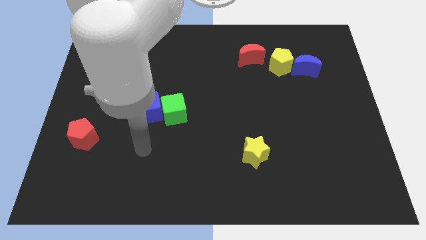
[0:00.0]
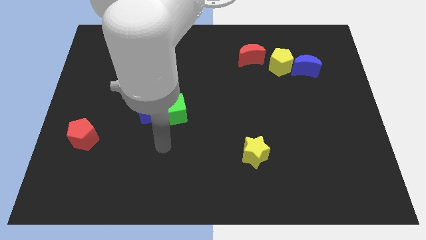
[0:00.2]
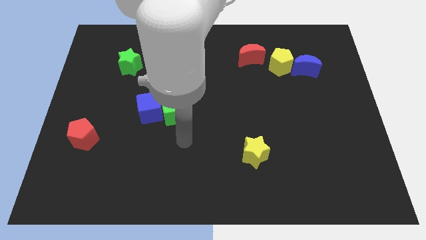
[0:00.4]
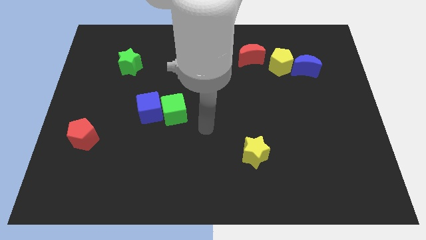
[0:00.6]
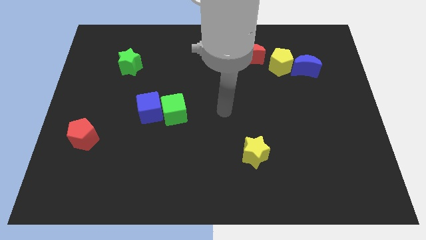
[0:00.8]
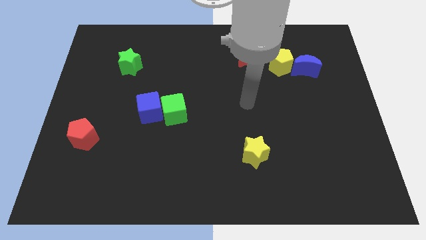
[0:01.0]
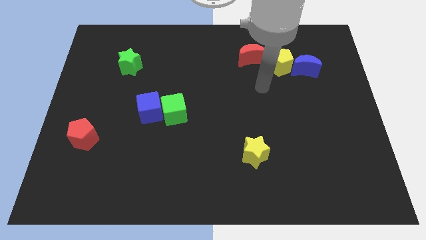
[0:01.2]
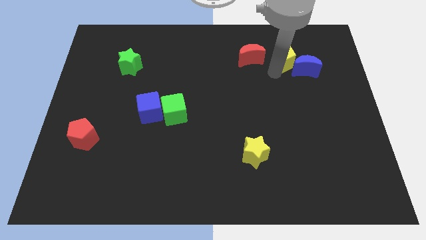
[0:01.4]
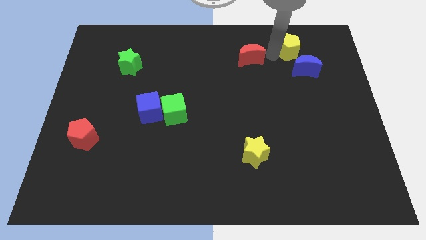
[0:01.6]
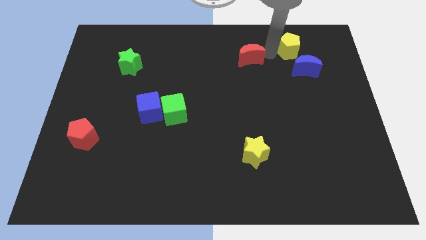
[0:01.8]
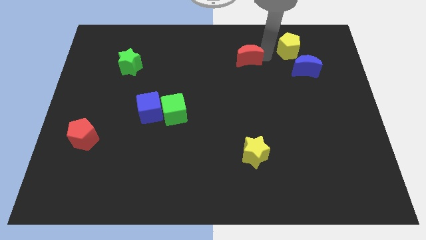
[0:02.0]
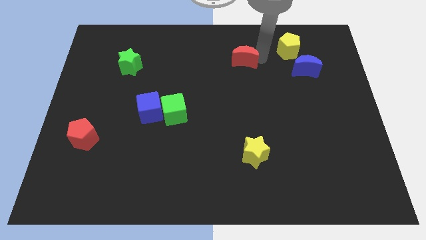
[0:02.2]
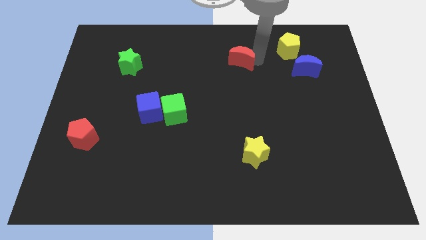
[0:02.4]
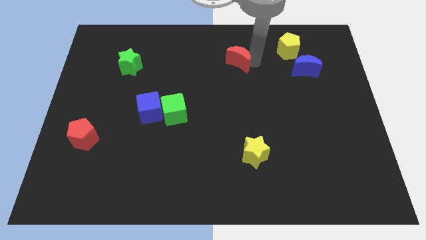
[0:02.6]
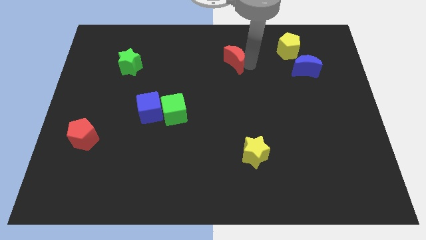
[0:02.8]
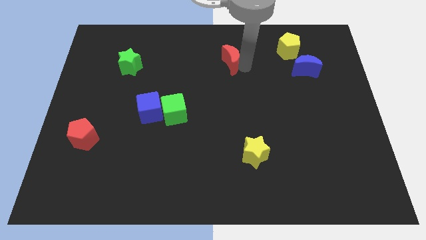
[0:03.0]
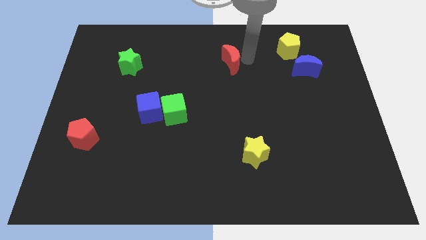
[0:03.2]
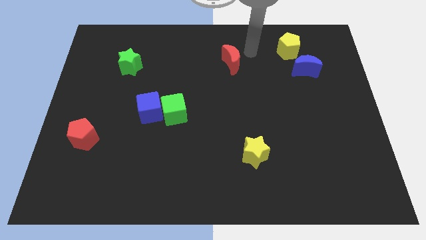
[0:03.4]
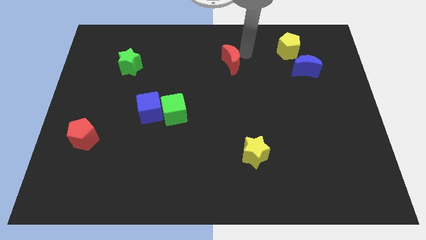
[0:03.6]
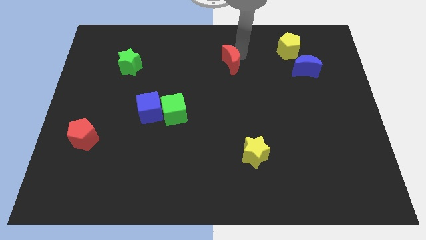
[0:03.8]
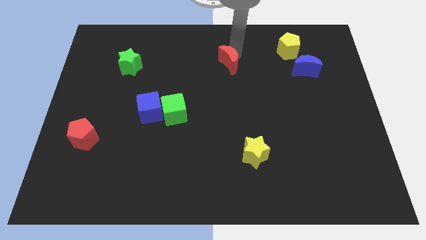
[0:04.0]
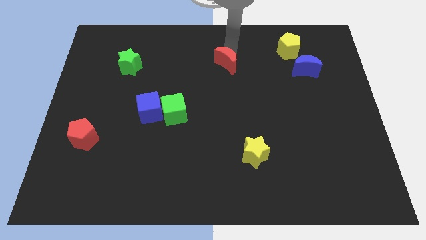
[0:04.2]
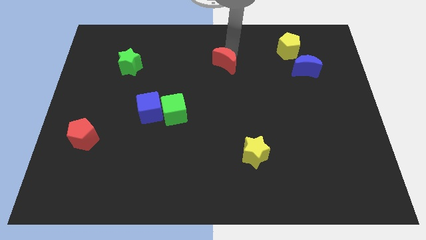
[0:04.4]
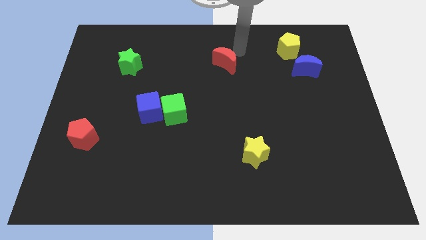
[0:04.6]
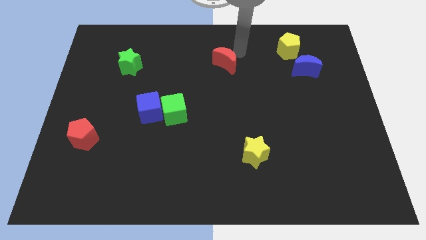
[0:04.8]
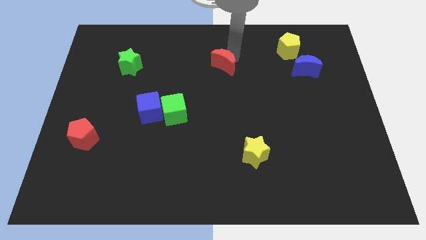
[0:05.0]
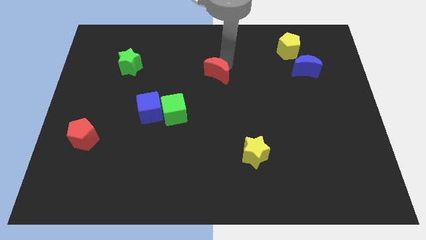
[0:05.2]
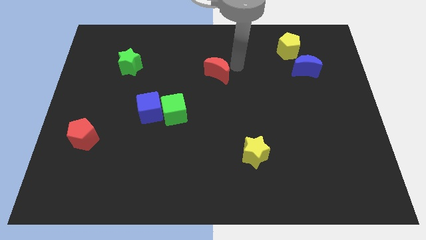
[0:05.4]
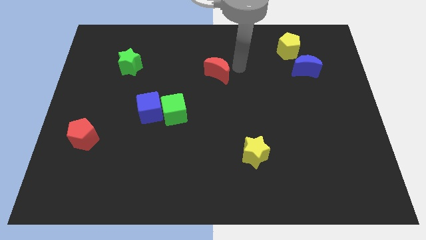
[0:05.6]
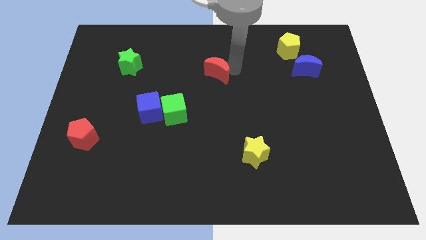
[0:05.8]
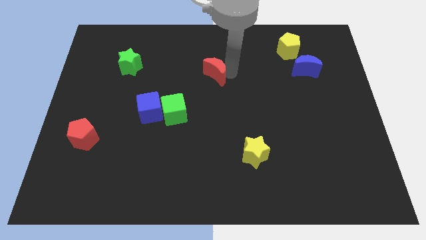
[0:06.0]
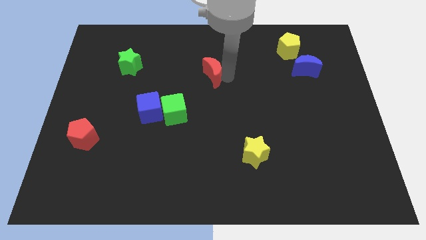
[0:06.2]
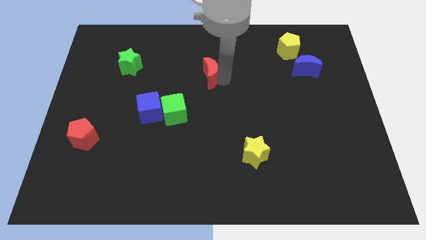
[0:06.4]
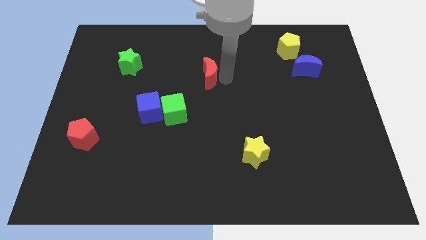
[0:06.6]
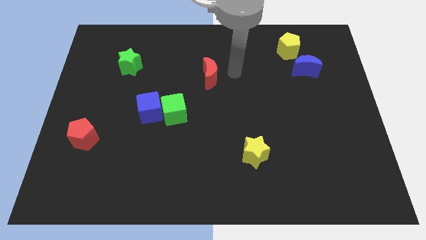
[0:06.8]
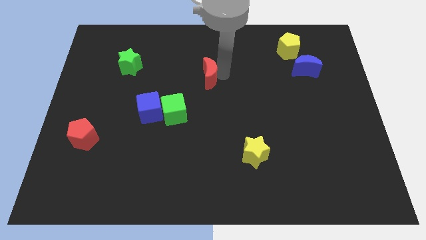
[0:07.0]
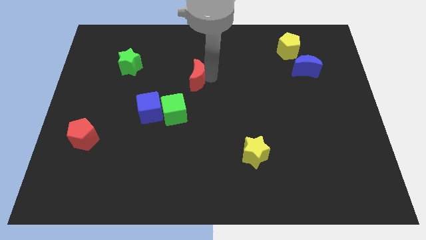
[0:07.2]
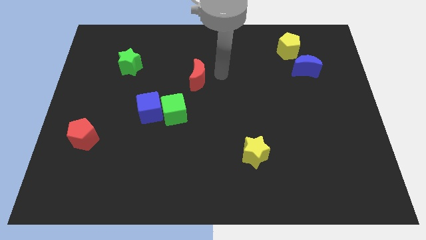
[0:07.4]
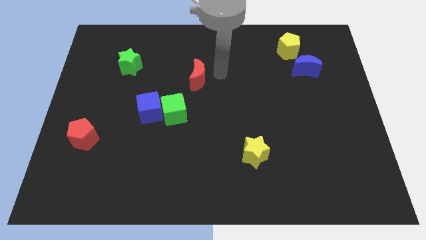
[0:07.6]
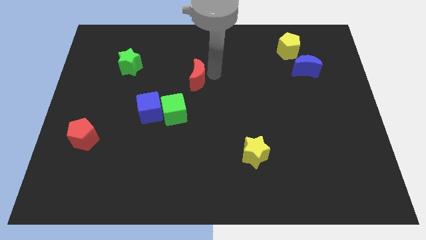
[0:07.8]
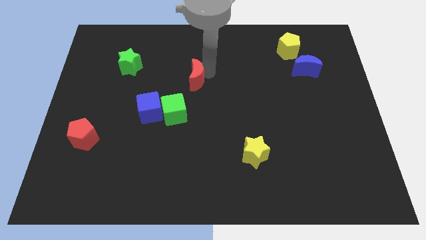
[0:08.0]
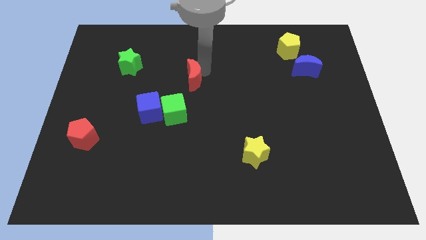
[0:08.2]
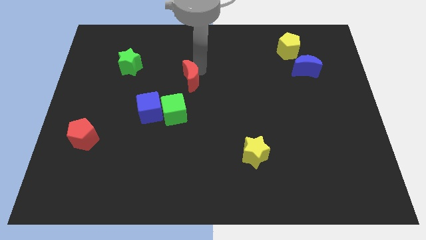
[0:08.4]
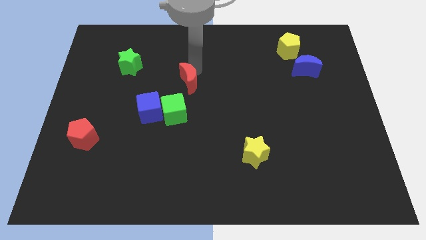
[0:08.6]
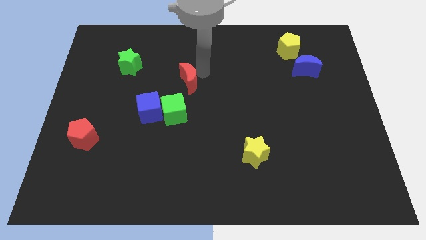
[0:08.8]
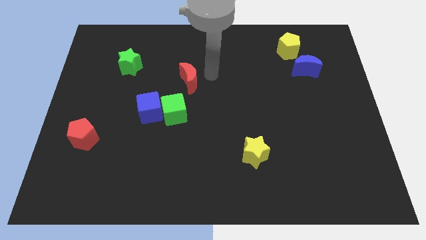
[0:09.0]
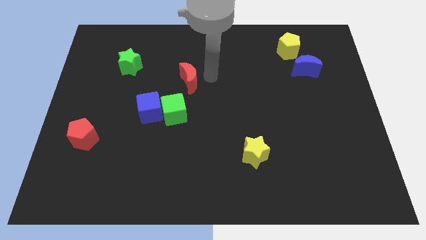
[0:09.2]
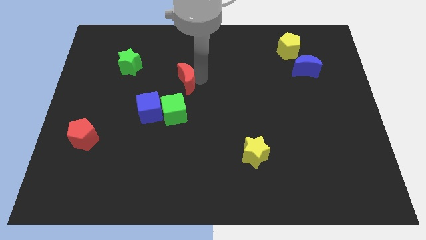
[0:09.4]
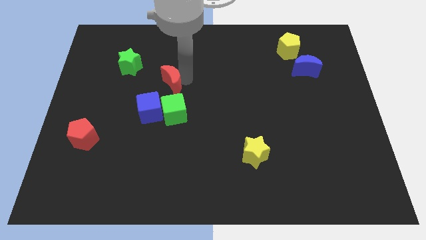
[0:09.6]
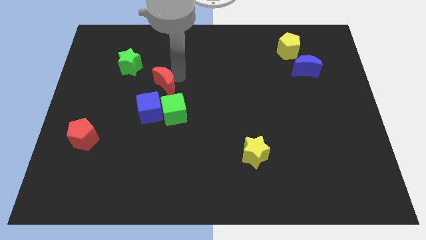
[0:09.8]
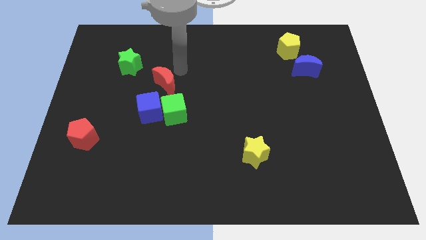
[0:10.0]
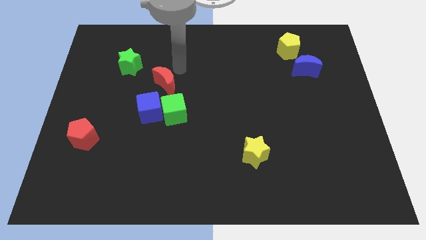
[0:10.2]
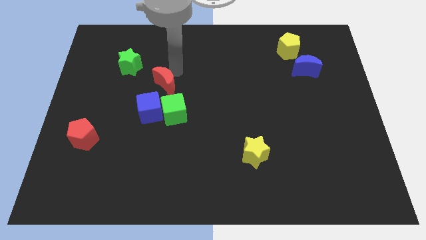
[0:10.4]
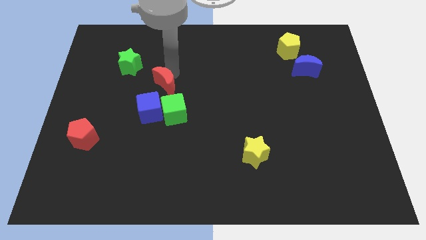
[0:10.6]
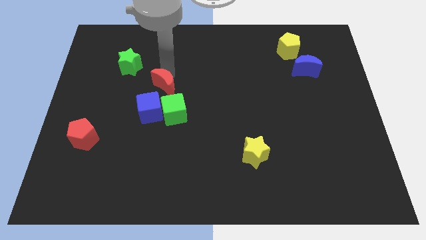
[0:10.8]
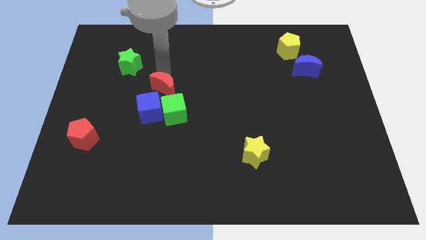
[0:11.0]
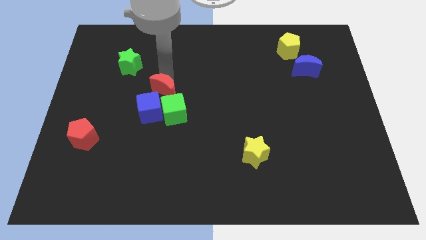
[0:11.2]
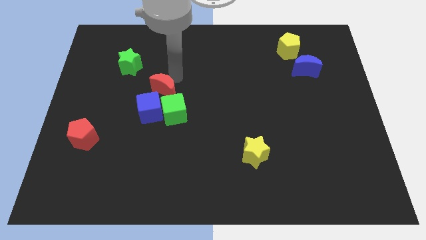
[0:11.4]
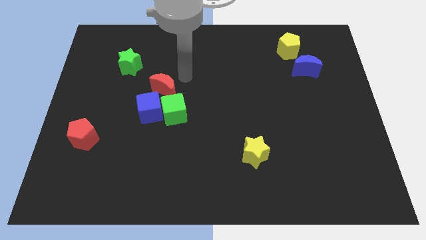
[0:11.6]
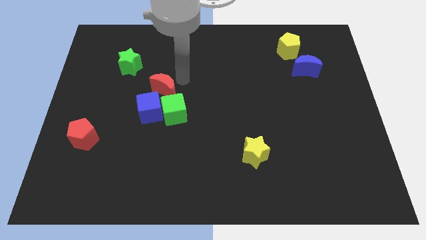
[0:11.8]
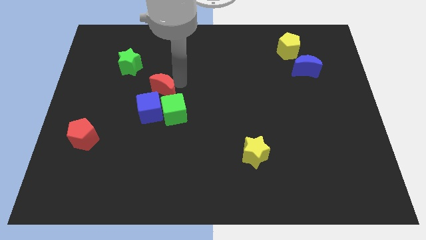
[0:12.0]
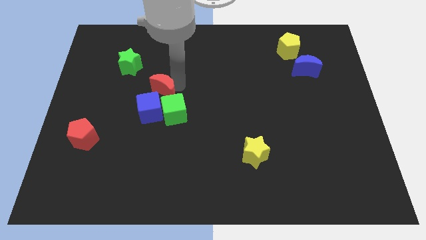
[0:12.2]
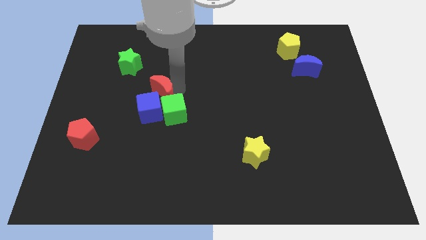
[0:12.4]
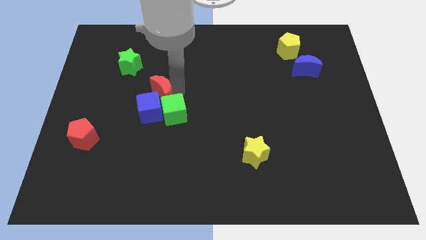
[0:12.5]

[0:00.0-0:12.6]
slide the red moon to the blue cube

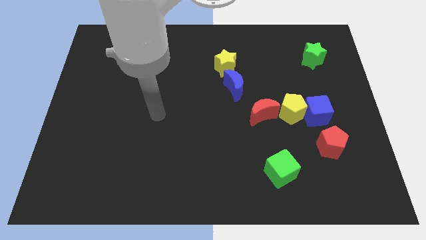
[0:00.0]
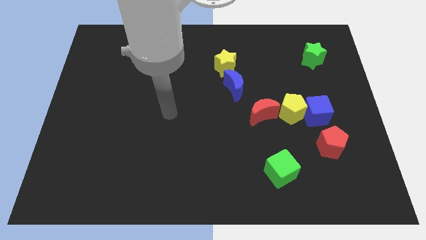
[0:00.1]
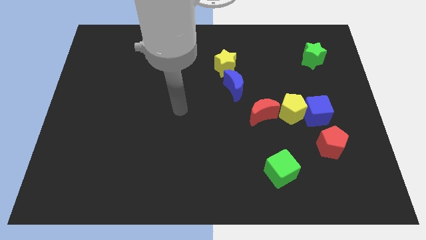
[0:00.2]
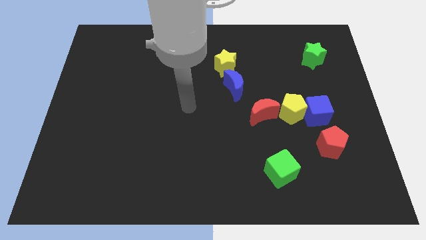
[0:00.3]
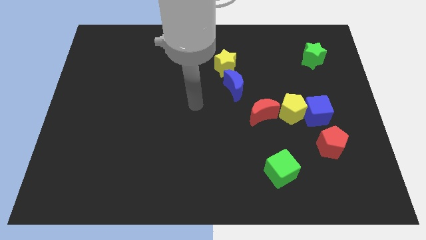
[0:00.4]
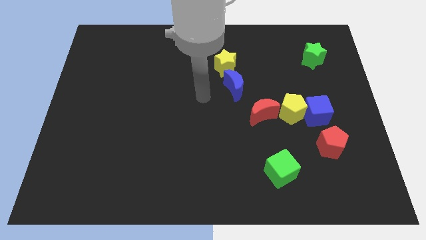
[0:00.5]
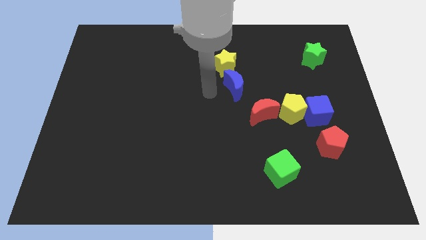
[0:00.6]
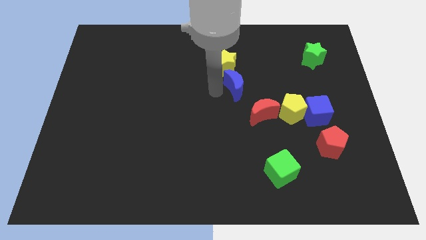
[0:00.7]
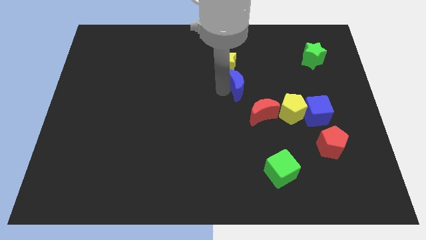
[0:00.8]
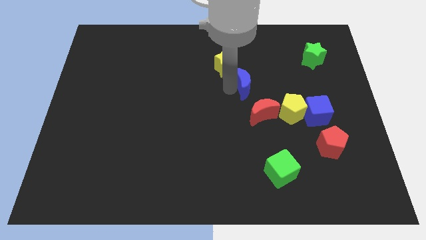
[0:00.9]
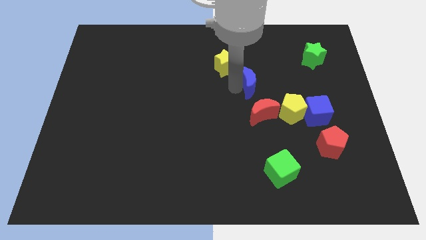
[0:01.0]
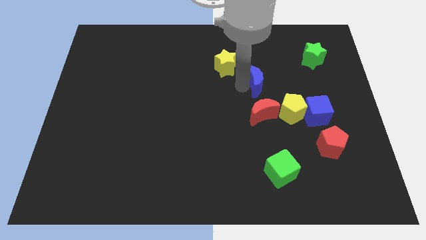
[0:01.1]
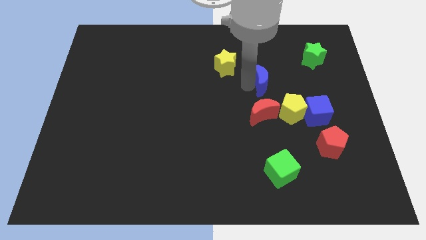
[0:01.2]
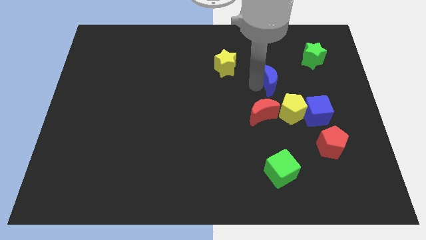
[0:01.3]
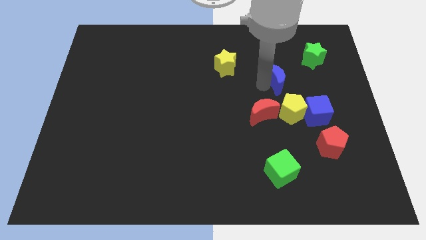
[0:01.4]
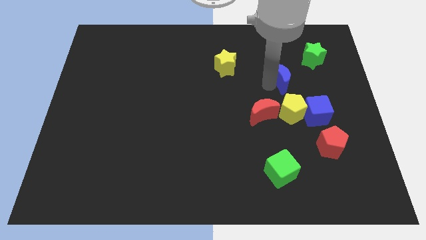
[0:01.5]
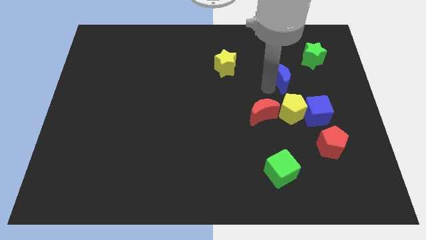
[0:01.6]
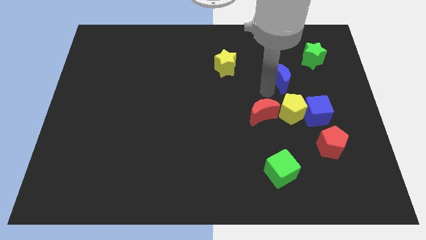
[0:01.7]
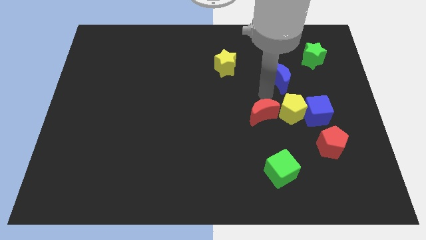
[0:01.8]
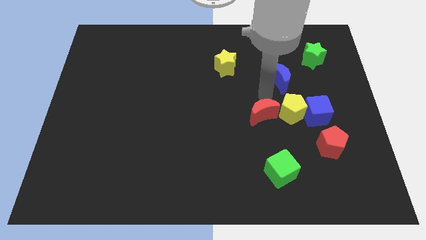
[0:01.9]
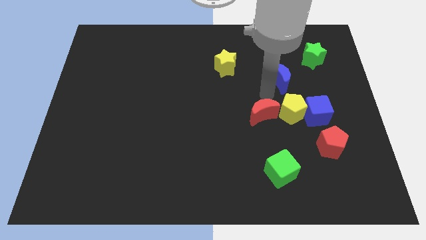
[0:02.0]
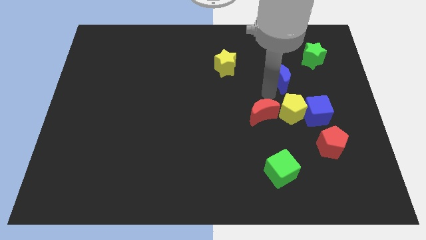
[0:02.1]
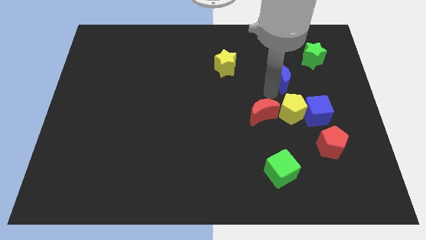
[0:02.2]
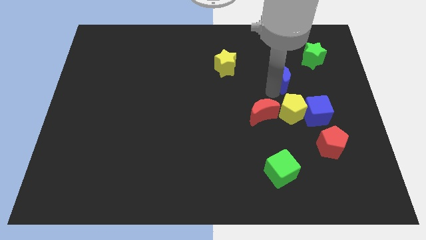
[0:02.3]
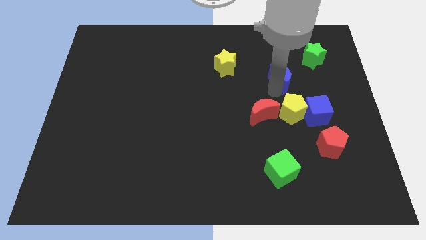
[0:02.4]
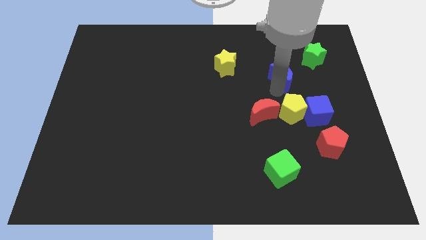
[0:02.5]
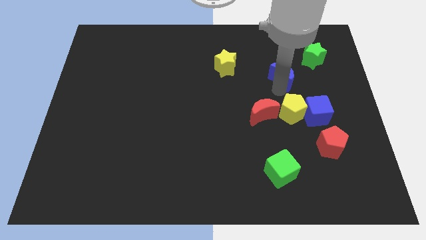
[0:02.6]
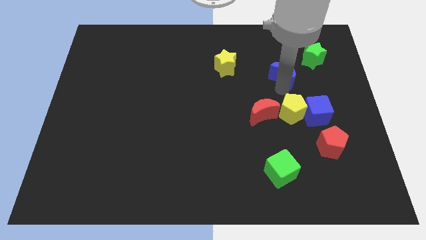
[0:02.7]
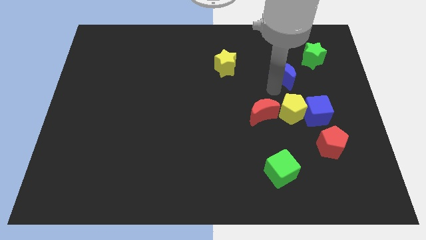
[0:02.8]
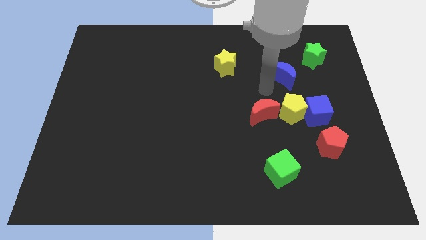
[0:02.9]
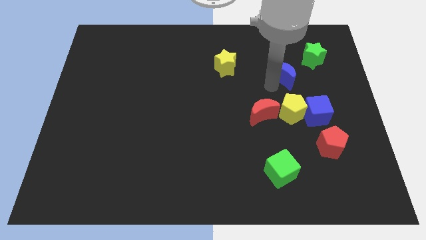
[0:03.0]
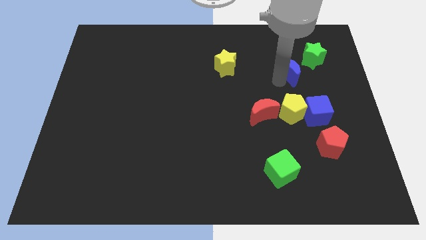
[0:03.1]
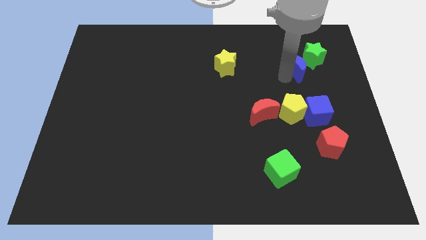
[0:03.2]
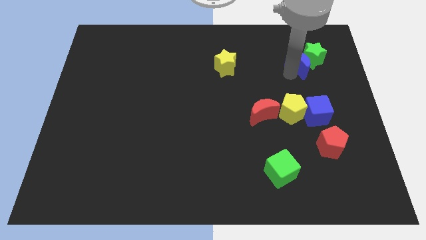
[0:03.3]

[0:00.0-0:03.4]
put the blue moon to the green star
